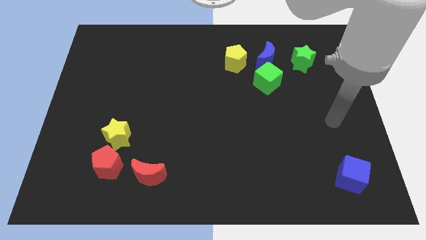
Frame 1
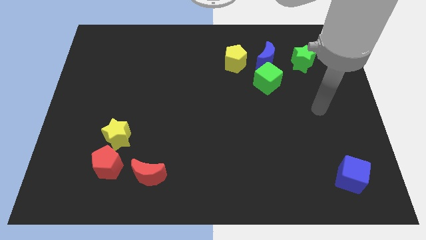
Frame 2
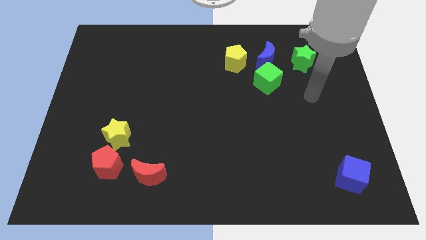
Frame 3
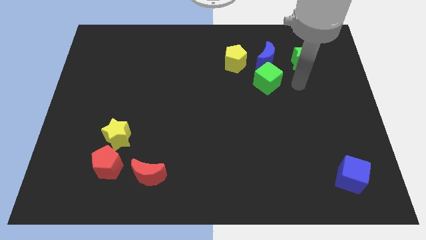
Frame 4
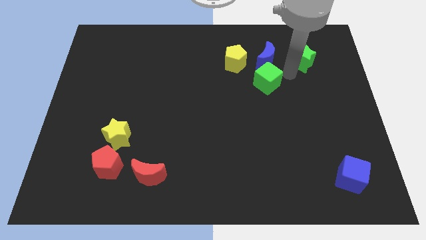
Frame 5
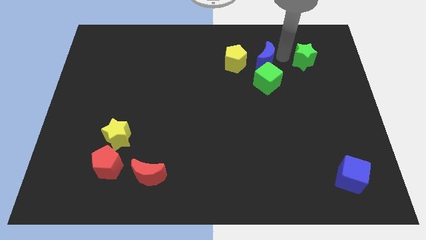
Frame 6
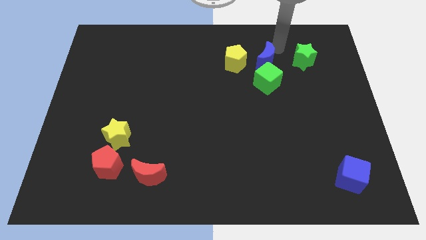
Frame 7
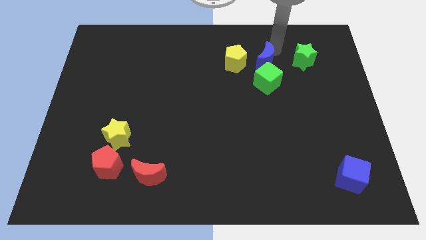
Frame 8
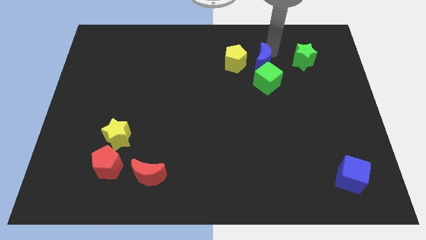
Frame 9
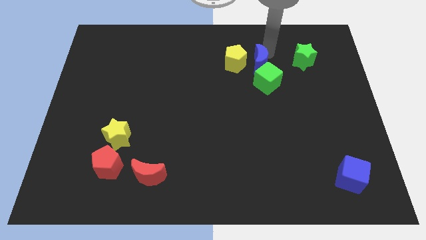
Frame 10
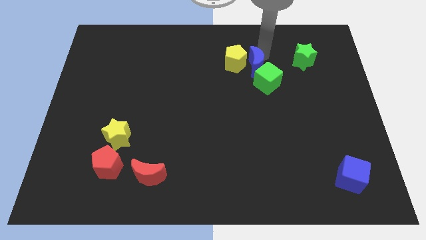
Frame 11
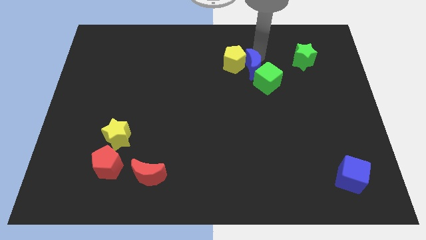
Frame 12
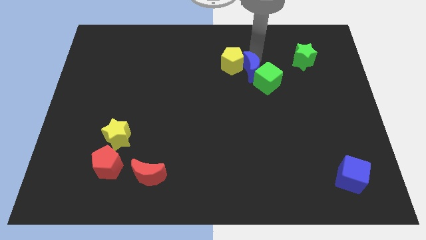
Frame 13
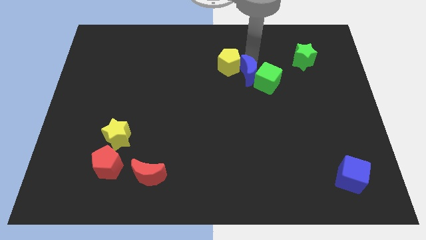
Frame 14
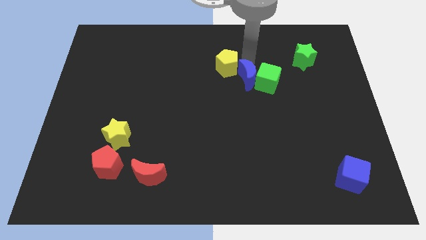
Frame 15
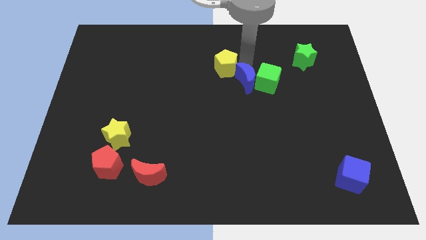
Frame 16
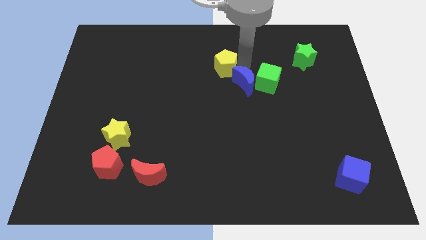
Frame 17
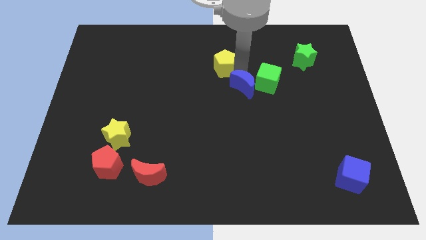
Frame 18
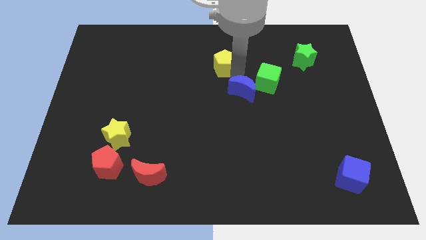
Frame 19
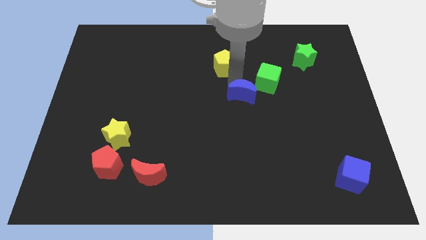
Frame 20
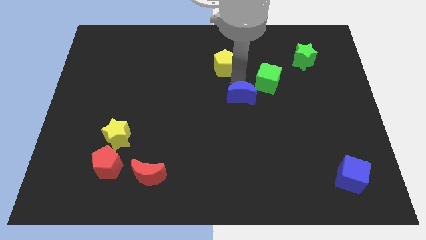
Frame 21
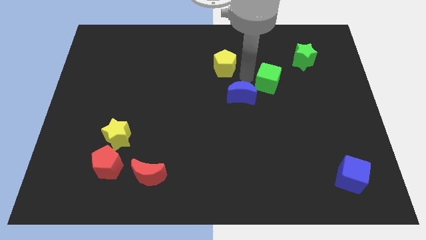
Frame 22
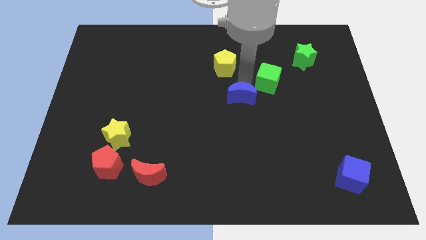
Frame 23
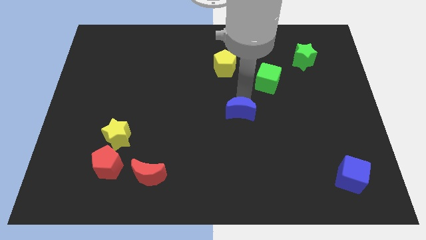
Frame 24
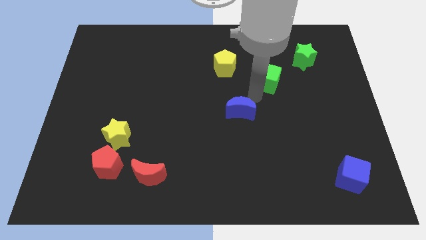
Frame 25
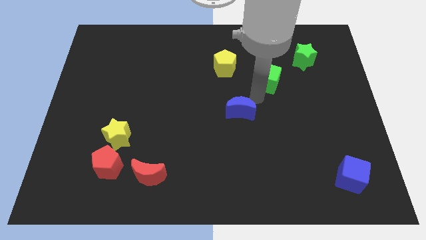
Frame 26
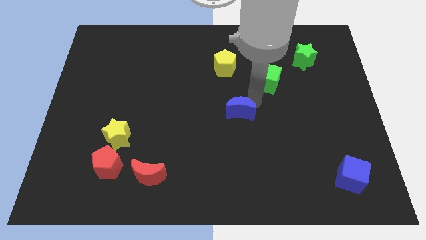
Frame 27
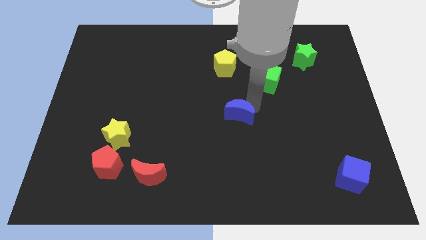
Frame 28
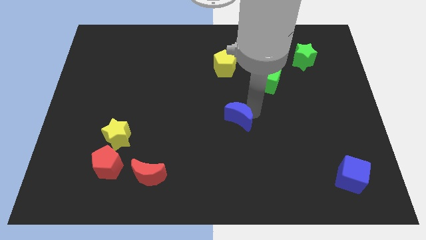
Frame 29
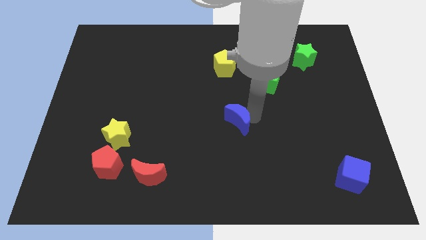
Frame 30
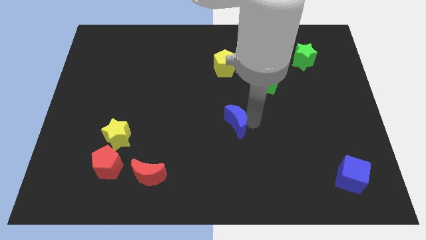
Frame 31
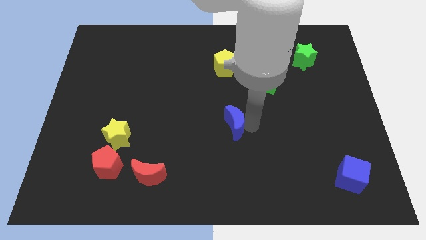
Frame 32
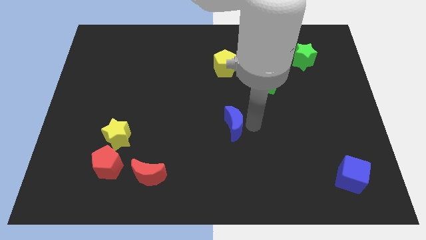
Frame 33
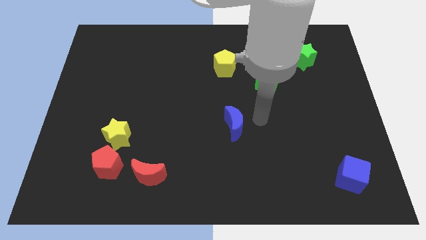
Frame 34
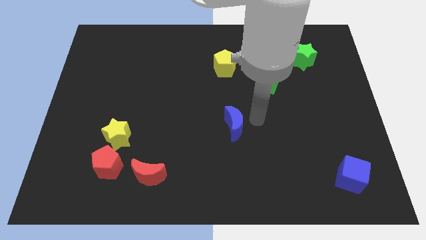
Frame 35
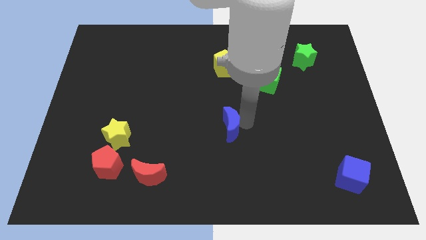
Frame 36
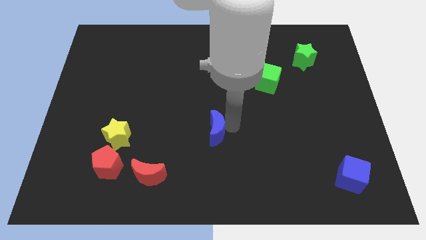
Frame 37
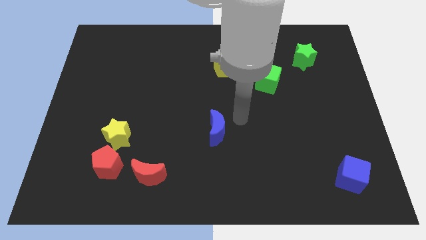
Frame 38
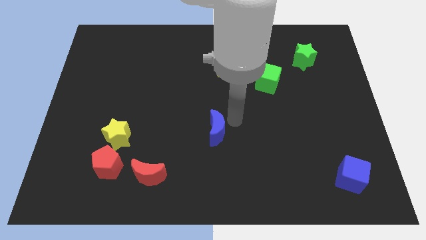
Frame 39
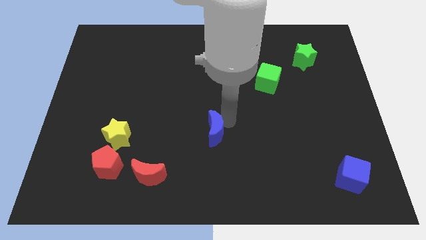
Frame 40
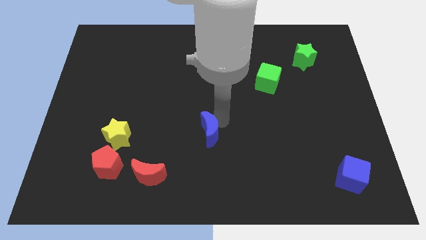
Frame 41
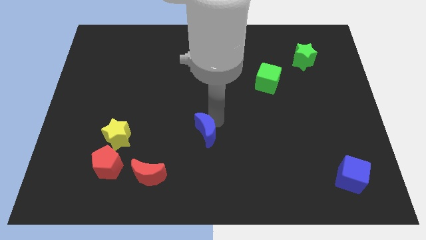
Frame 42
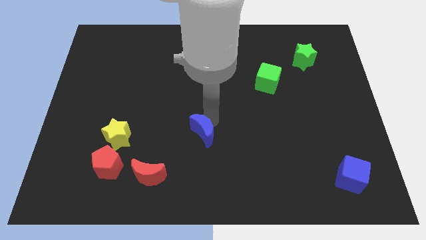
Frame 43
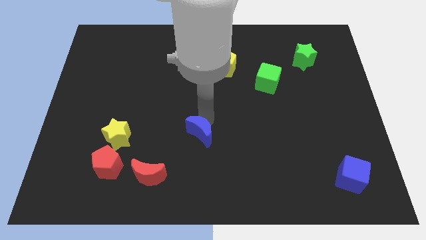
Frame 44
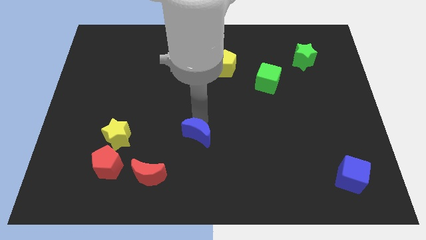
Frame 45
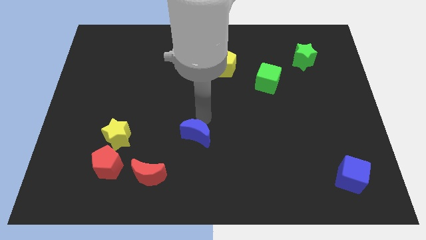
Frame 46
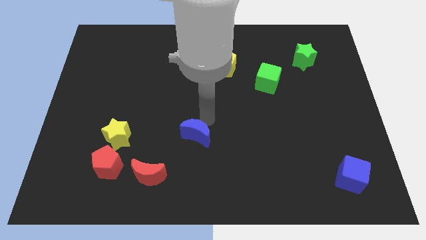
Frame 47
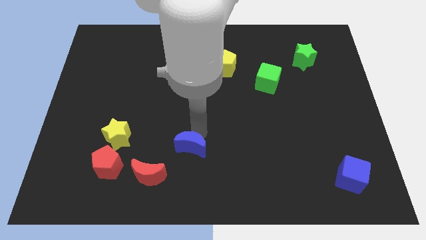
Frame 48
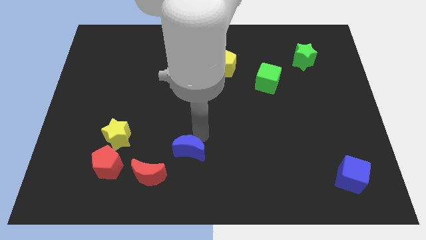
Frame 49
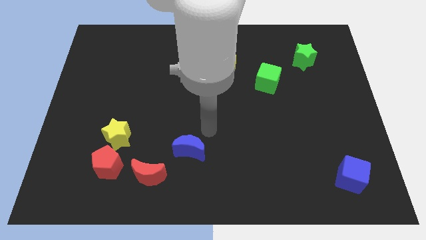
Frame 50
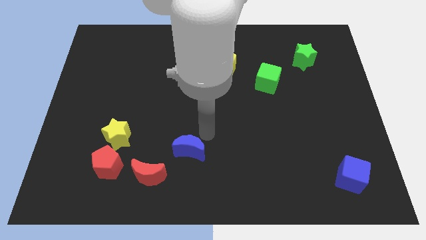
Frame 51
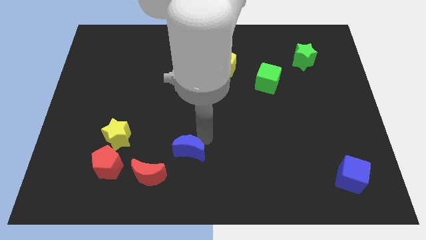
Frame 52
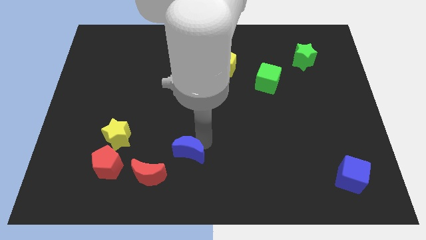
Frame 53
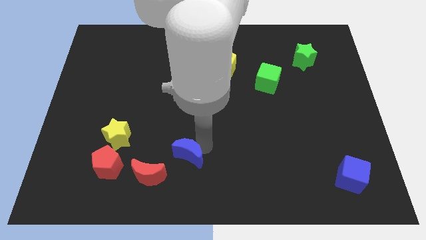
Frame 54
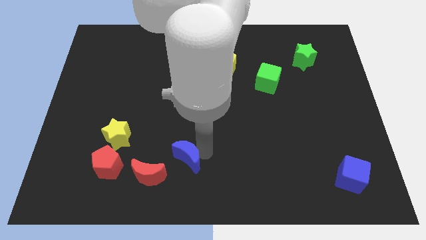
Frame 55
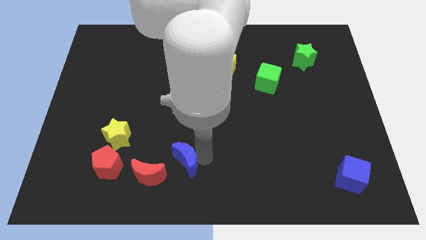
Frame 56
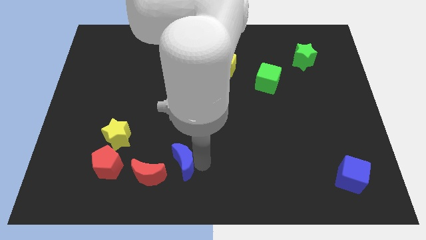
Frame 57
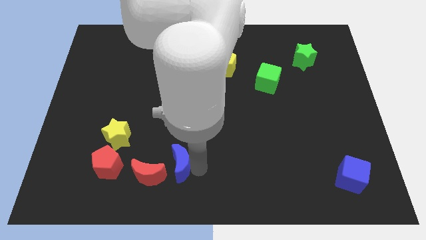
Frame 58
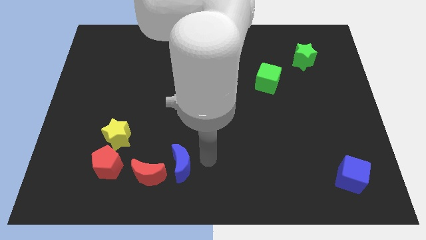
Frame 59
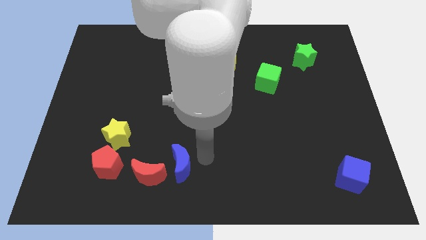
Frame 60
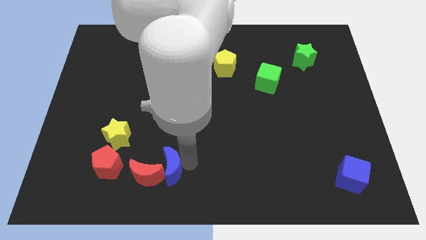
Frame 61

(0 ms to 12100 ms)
move the blue moon next to the red moon

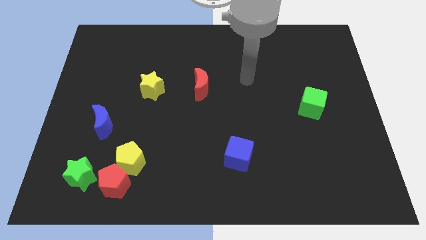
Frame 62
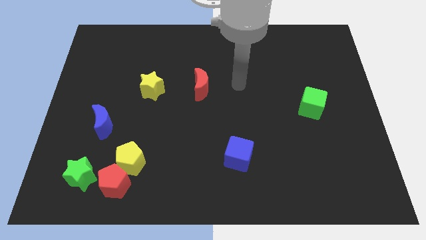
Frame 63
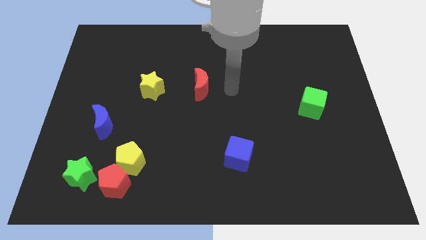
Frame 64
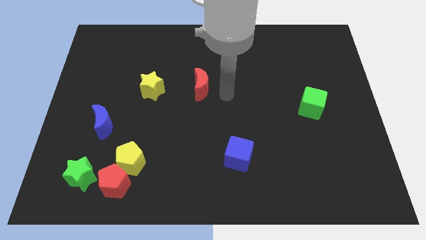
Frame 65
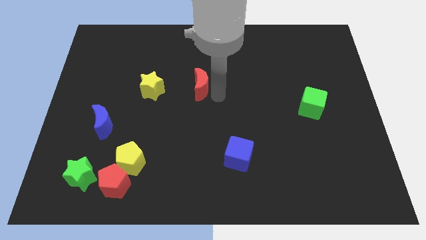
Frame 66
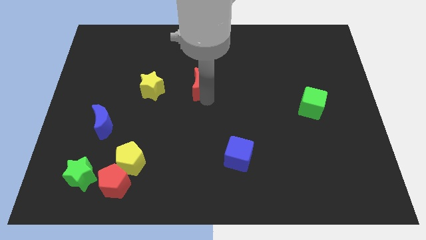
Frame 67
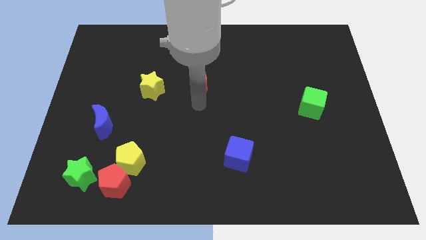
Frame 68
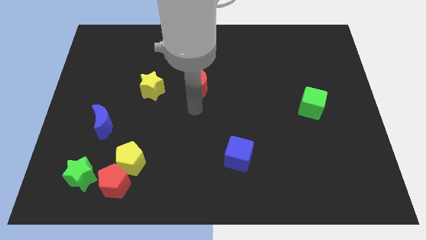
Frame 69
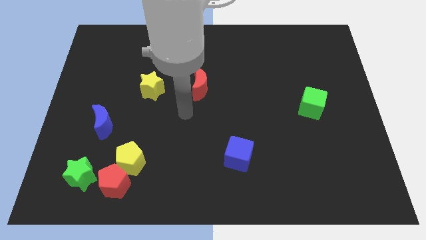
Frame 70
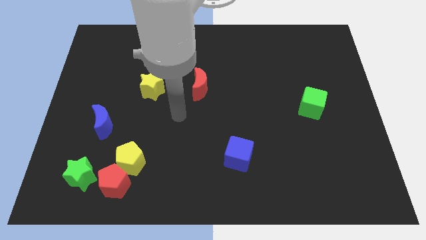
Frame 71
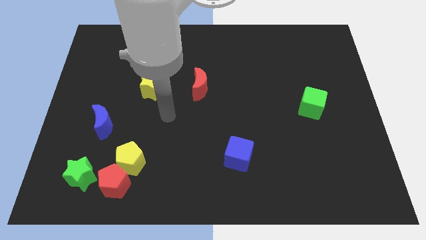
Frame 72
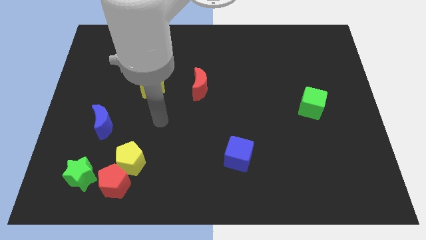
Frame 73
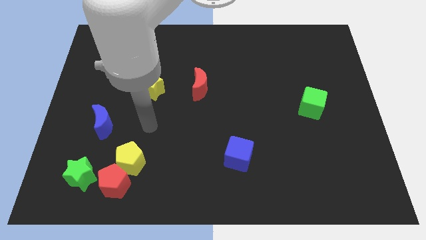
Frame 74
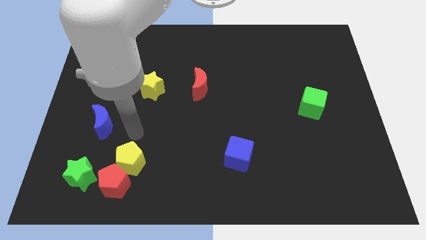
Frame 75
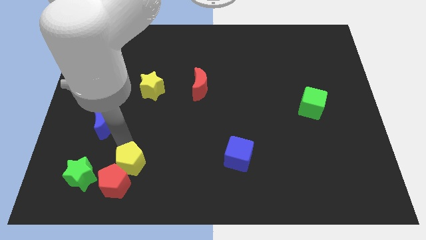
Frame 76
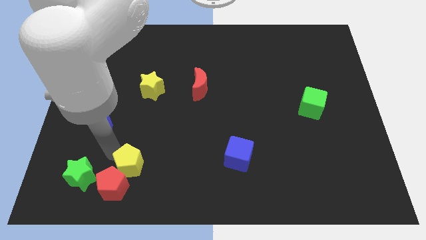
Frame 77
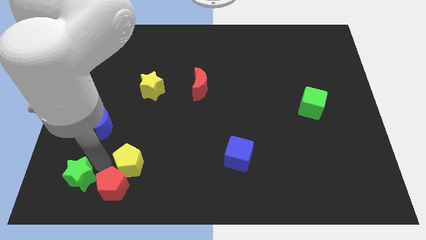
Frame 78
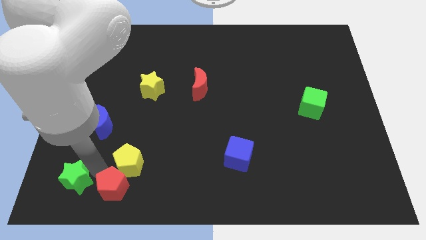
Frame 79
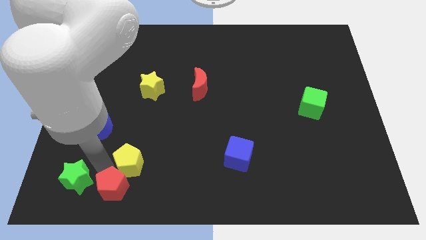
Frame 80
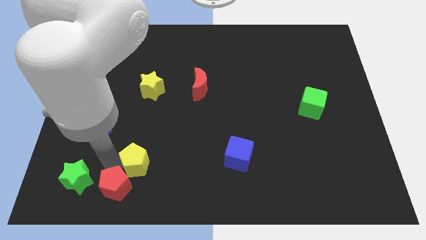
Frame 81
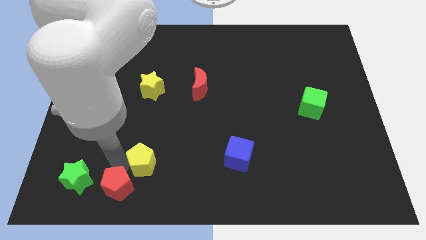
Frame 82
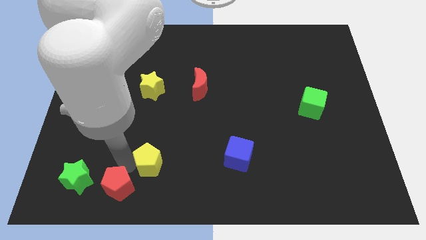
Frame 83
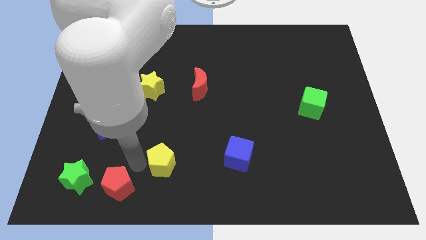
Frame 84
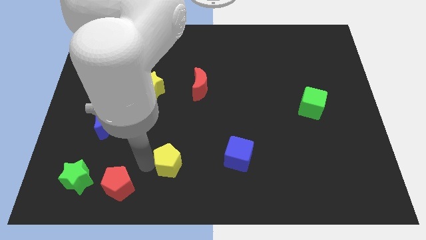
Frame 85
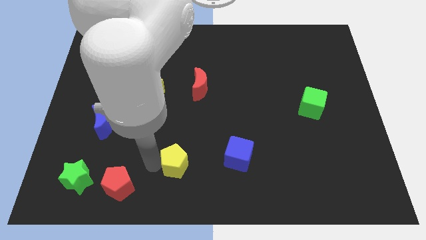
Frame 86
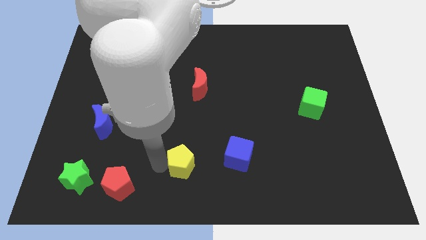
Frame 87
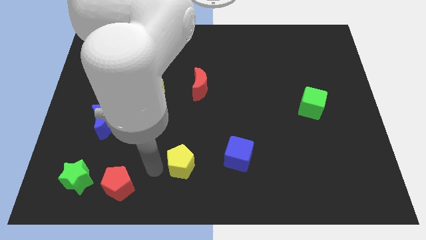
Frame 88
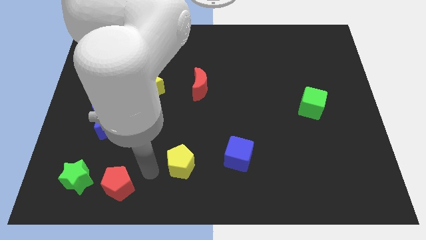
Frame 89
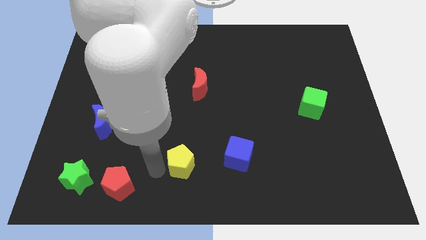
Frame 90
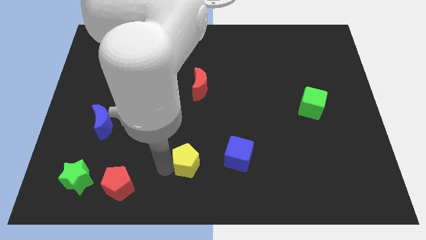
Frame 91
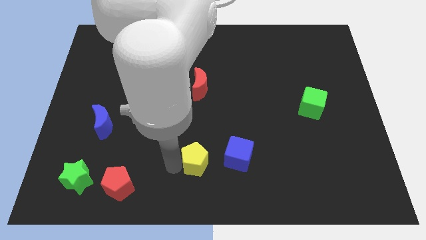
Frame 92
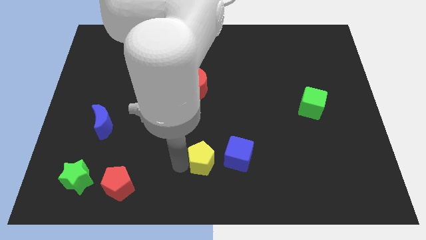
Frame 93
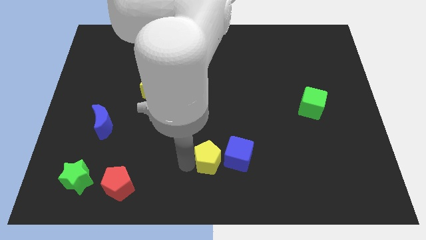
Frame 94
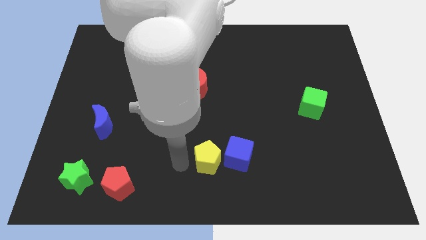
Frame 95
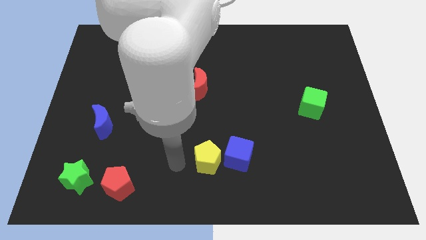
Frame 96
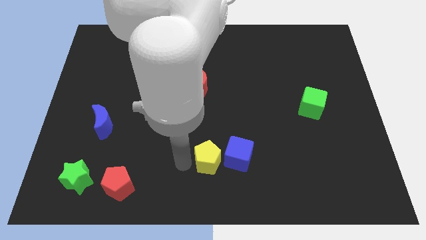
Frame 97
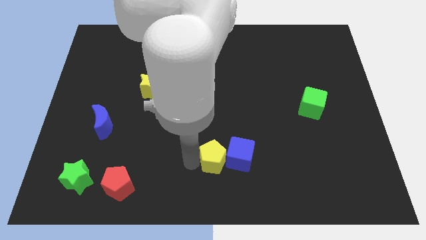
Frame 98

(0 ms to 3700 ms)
move the yellow pentagon close to the blue cube
